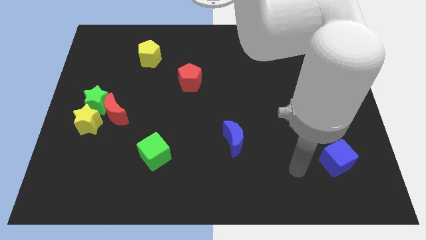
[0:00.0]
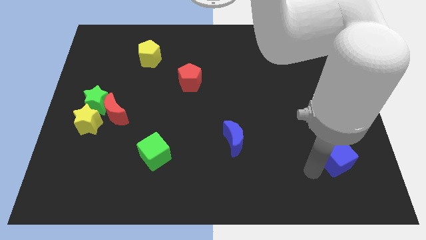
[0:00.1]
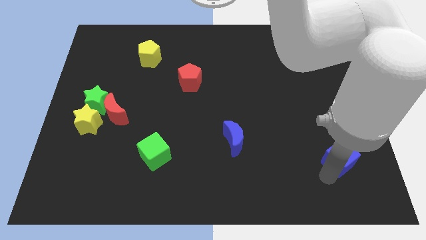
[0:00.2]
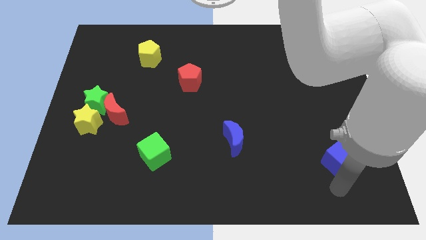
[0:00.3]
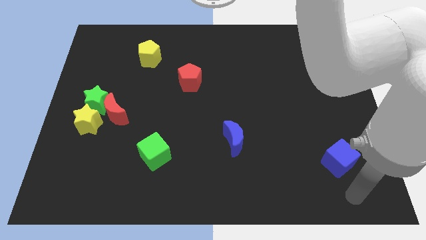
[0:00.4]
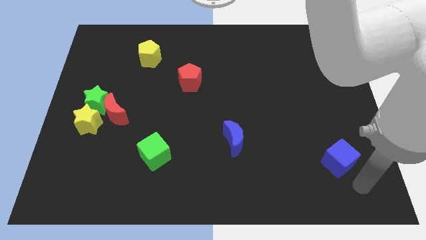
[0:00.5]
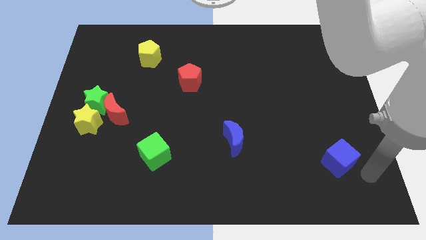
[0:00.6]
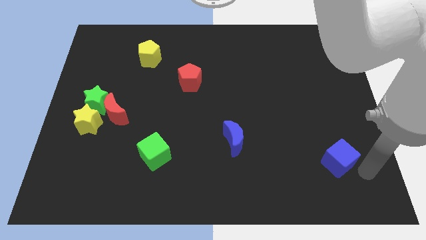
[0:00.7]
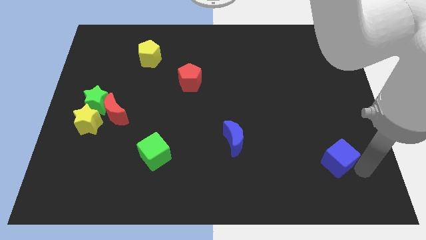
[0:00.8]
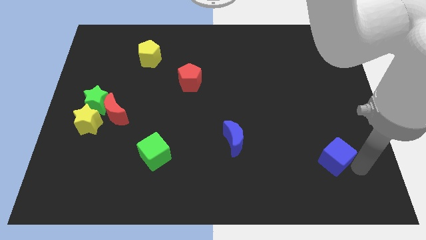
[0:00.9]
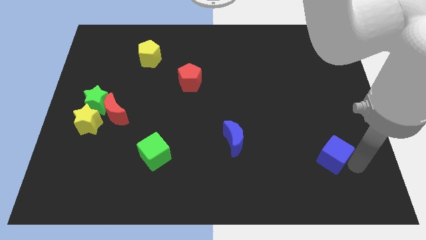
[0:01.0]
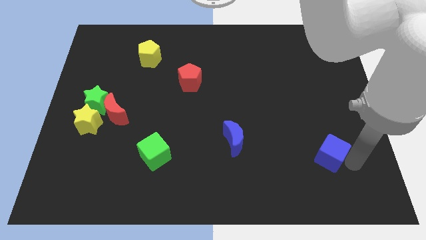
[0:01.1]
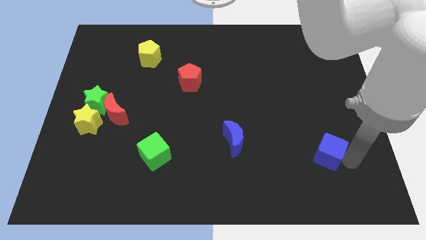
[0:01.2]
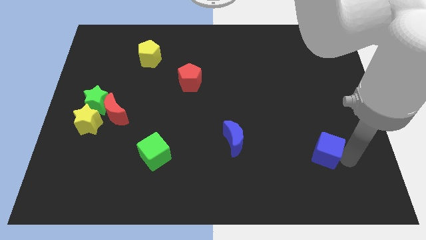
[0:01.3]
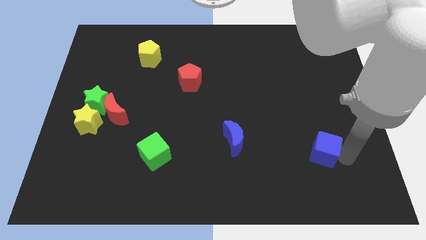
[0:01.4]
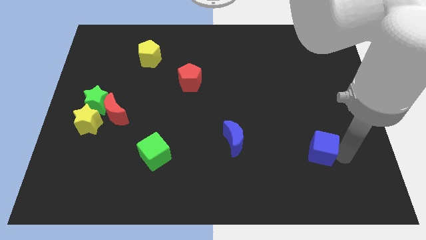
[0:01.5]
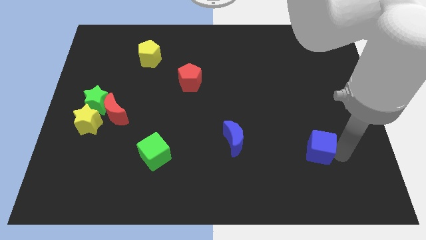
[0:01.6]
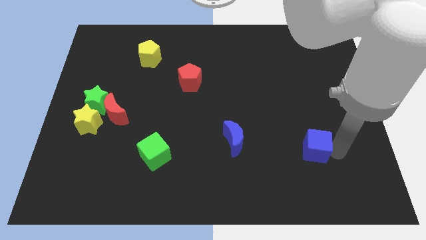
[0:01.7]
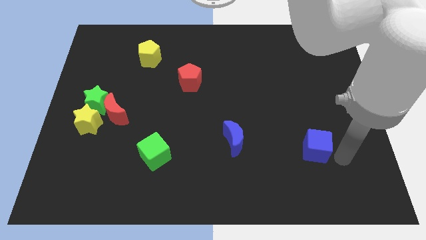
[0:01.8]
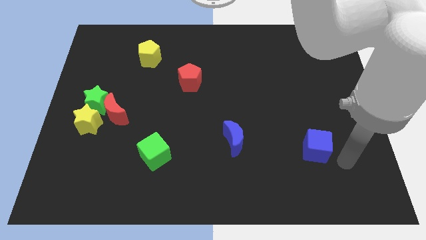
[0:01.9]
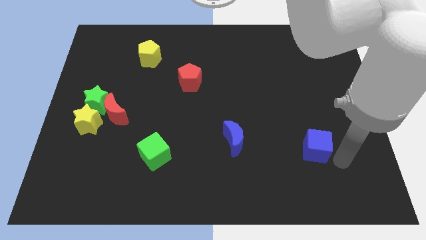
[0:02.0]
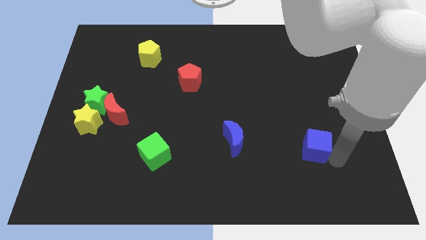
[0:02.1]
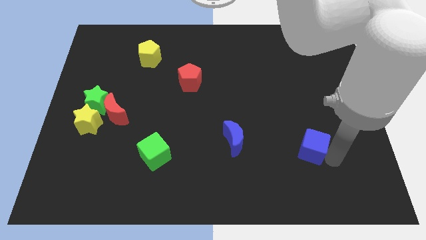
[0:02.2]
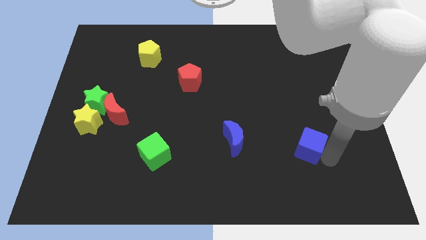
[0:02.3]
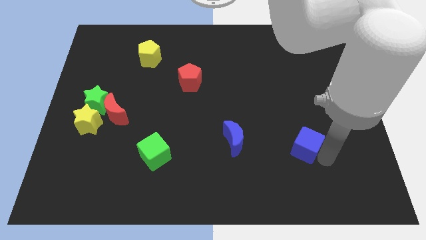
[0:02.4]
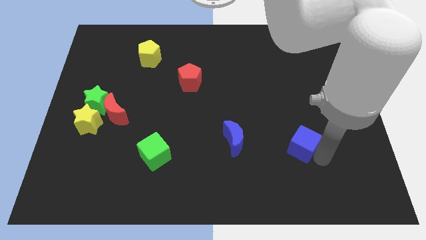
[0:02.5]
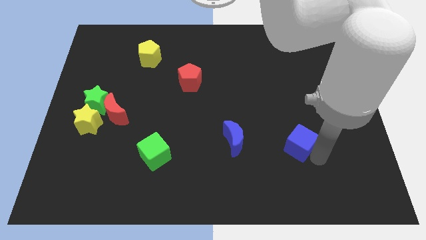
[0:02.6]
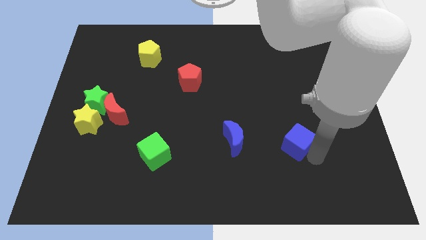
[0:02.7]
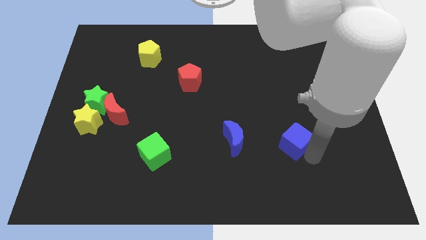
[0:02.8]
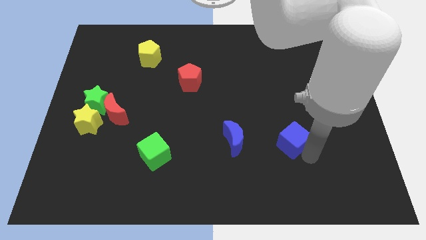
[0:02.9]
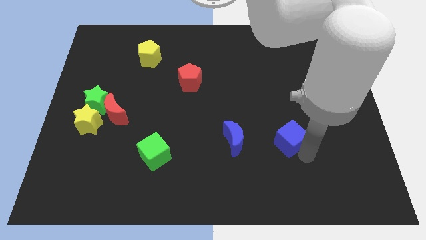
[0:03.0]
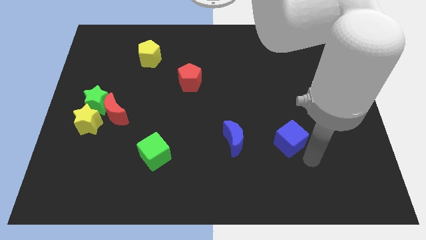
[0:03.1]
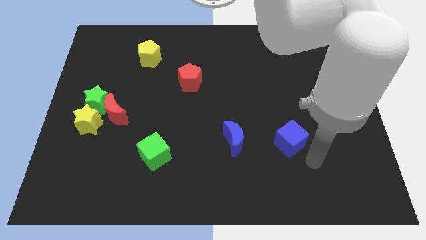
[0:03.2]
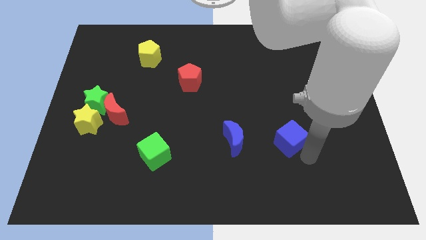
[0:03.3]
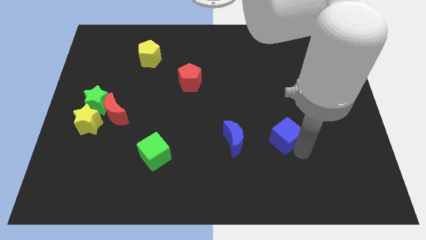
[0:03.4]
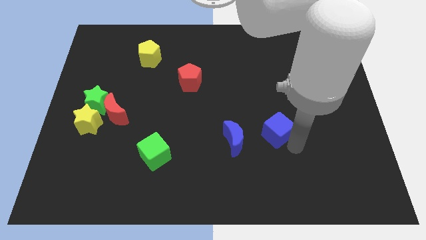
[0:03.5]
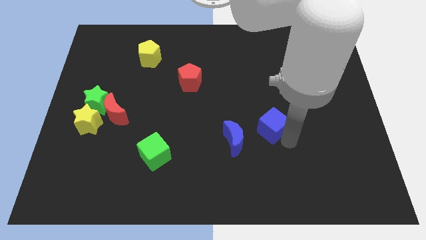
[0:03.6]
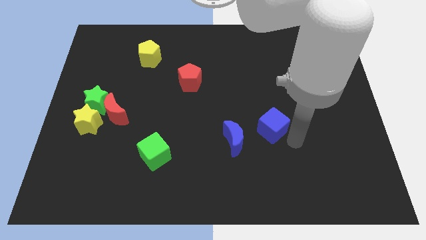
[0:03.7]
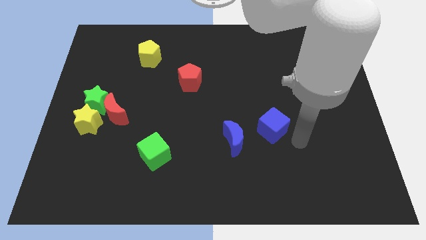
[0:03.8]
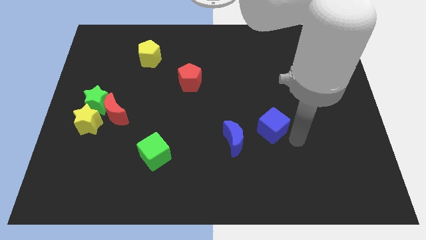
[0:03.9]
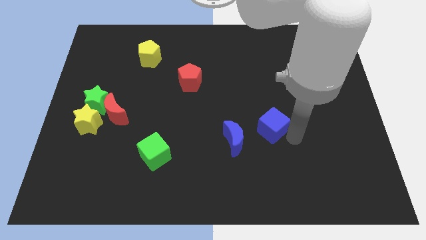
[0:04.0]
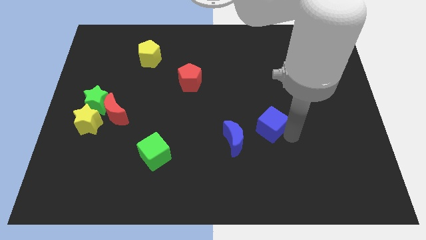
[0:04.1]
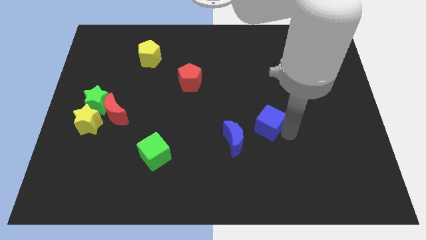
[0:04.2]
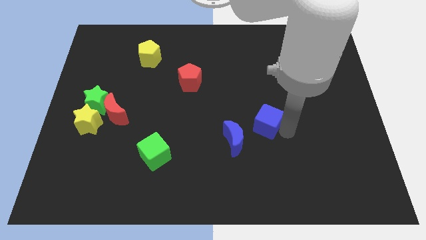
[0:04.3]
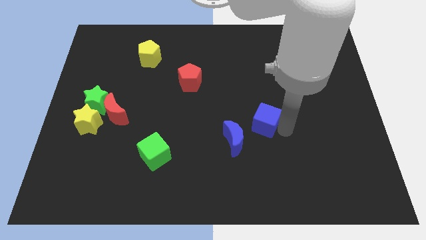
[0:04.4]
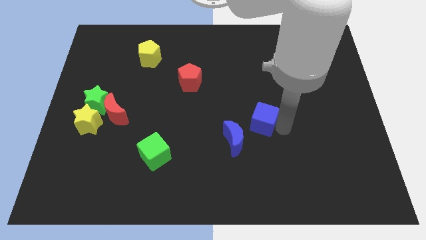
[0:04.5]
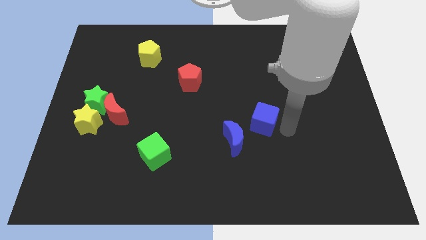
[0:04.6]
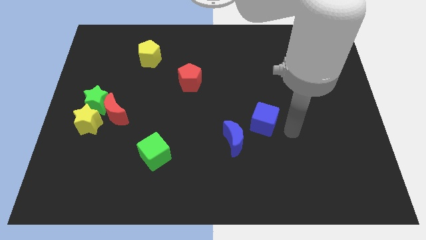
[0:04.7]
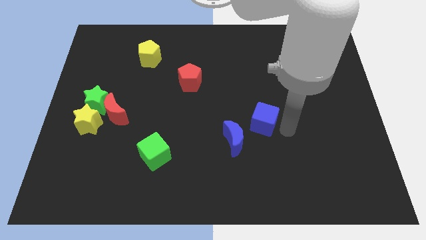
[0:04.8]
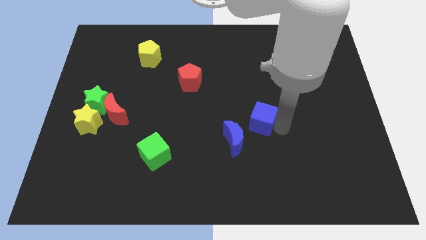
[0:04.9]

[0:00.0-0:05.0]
move the blue cube to the middle

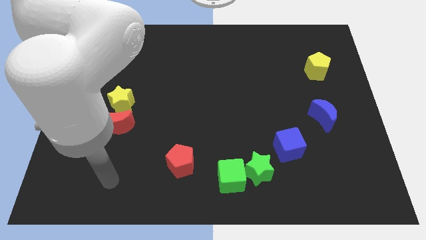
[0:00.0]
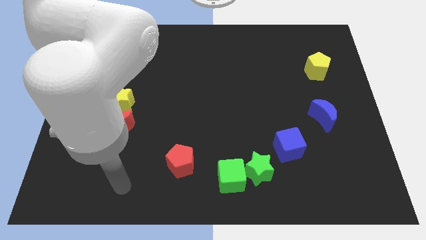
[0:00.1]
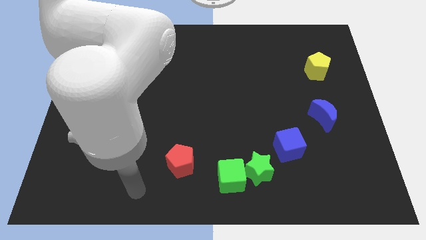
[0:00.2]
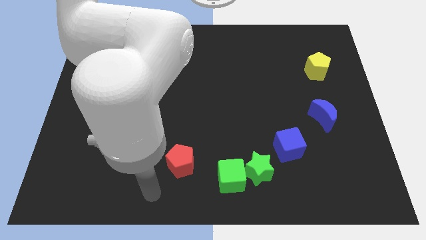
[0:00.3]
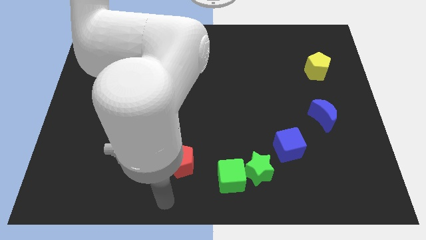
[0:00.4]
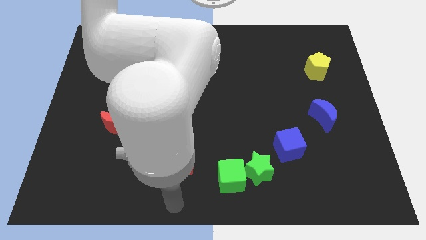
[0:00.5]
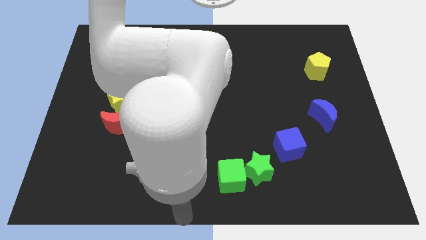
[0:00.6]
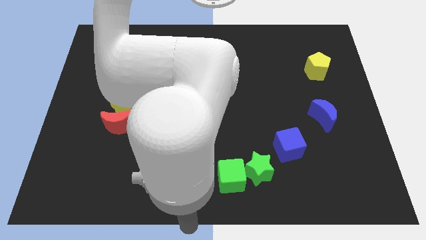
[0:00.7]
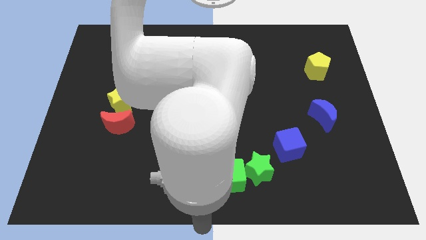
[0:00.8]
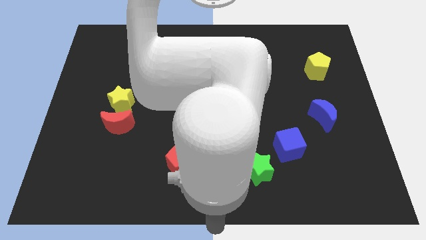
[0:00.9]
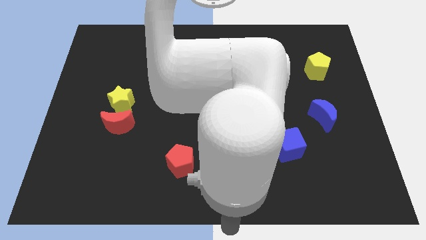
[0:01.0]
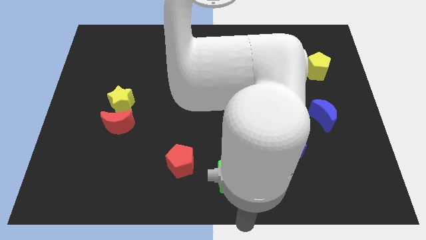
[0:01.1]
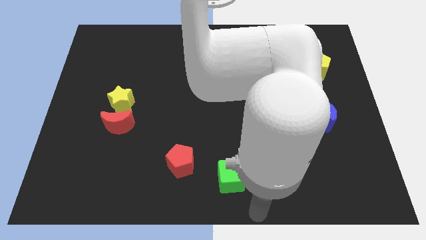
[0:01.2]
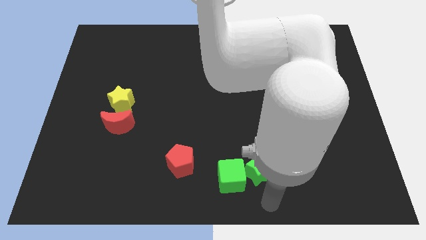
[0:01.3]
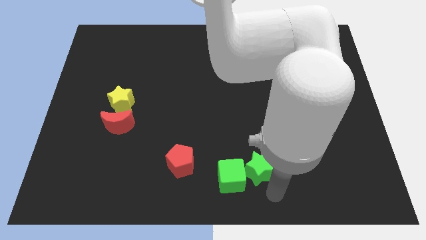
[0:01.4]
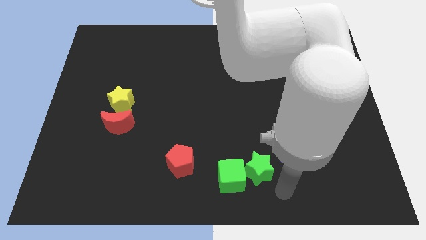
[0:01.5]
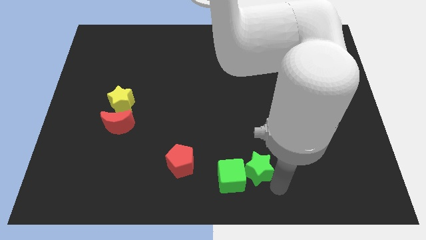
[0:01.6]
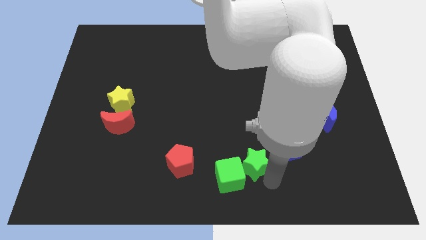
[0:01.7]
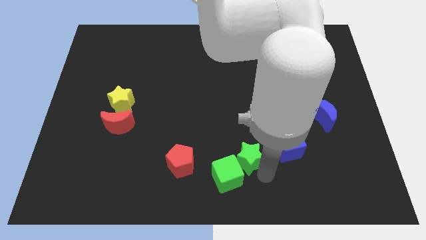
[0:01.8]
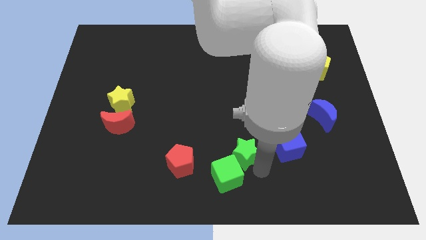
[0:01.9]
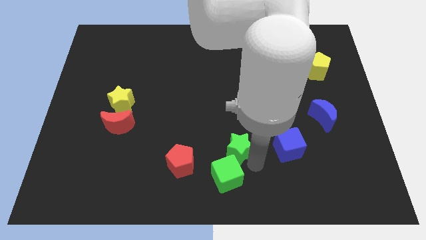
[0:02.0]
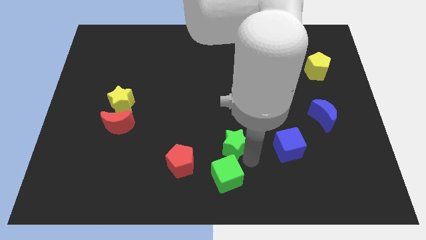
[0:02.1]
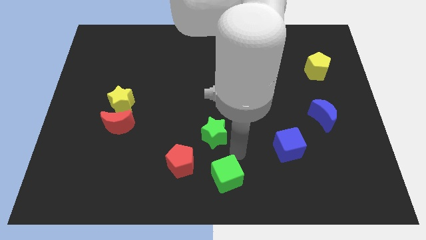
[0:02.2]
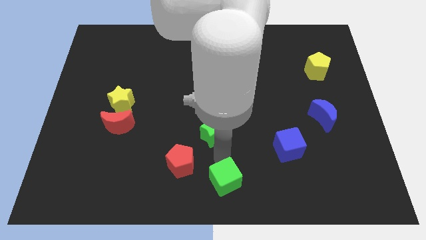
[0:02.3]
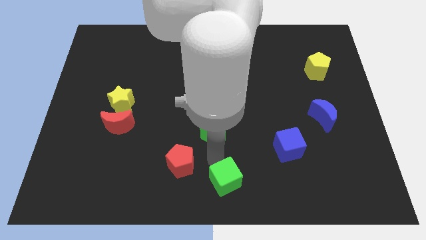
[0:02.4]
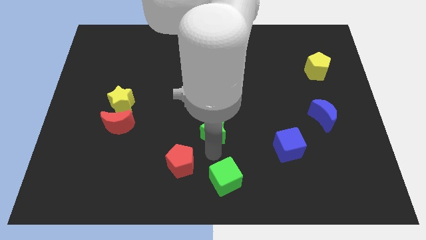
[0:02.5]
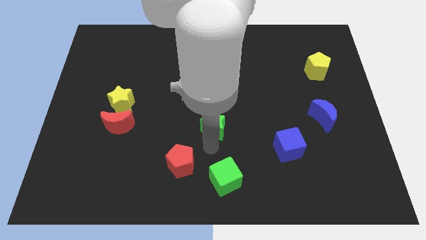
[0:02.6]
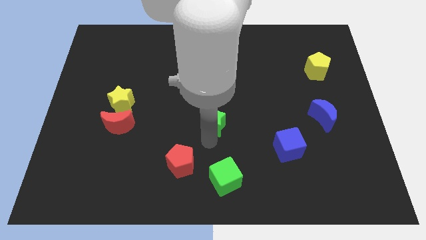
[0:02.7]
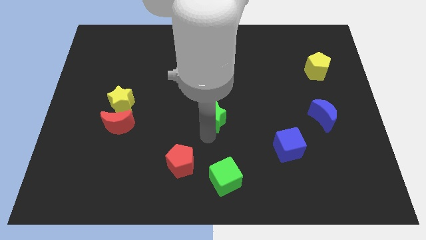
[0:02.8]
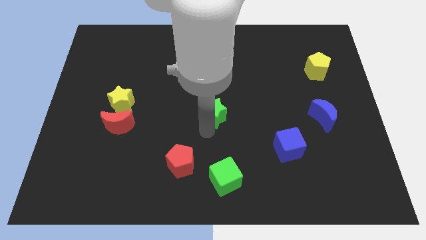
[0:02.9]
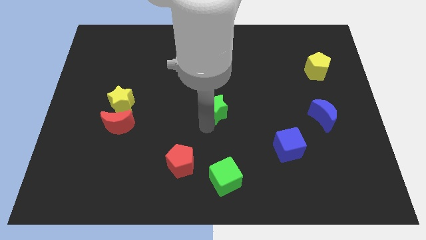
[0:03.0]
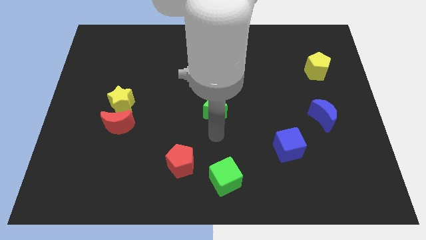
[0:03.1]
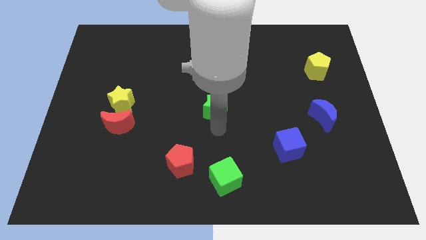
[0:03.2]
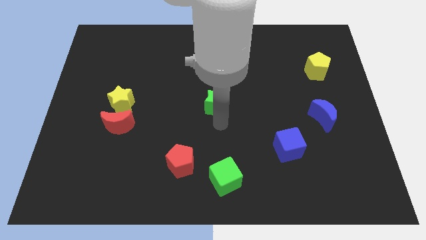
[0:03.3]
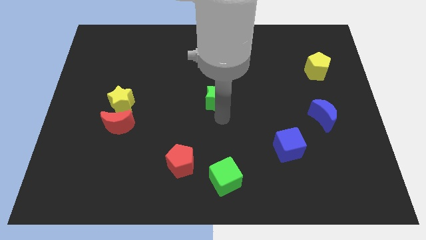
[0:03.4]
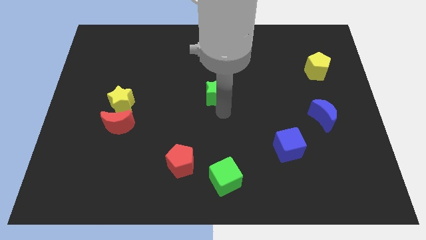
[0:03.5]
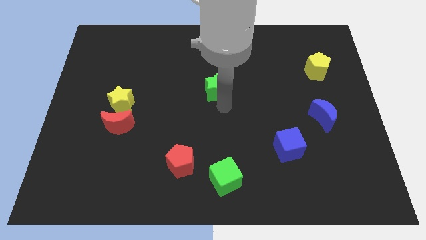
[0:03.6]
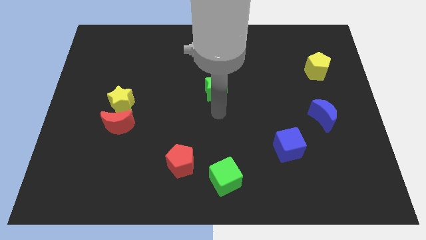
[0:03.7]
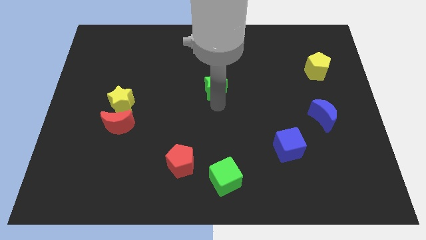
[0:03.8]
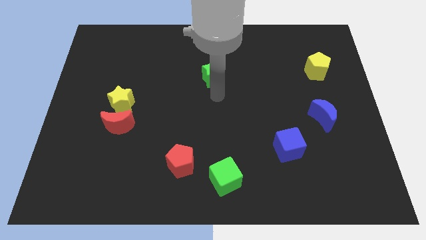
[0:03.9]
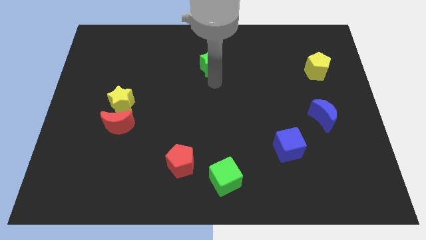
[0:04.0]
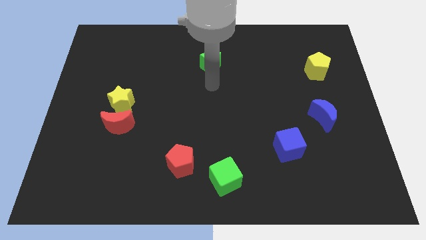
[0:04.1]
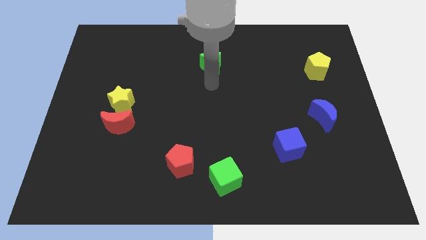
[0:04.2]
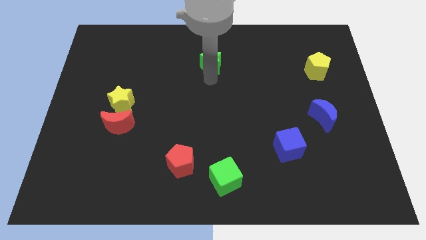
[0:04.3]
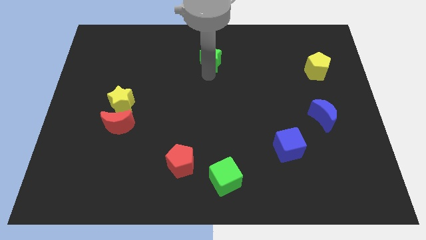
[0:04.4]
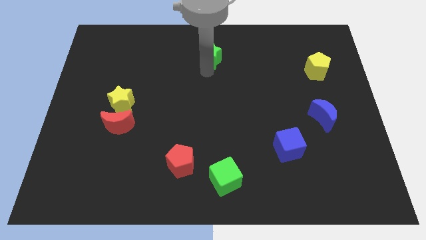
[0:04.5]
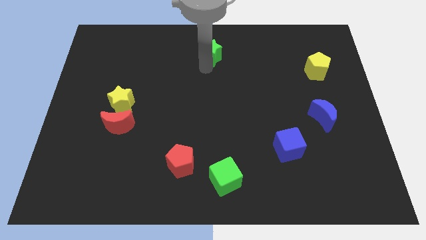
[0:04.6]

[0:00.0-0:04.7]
push the green star to the top side
